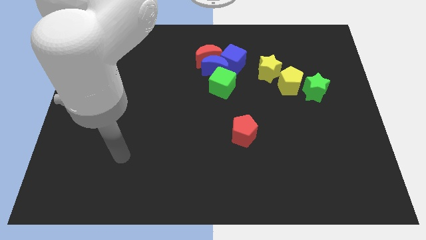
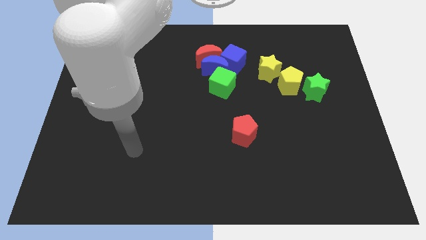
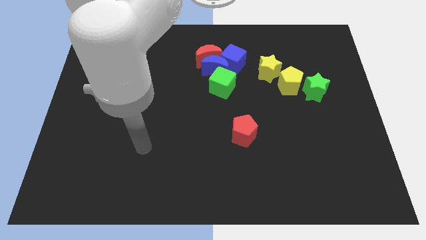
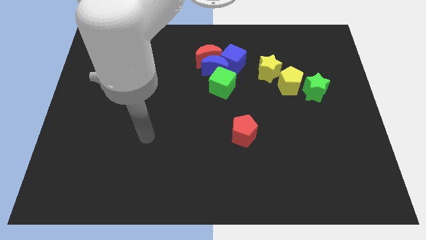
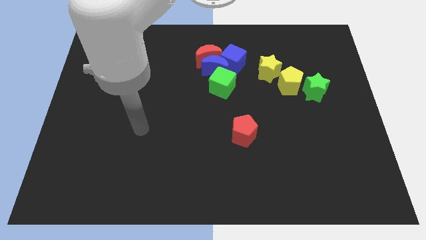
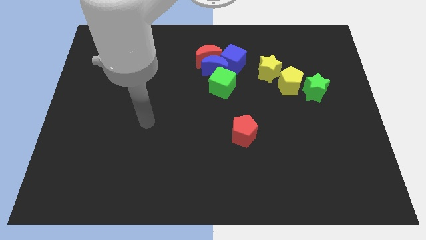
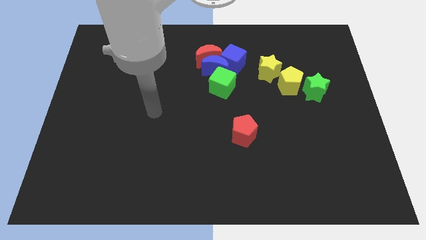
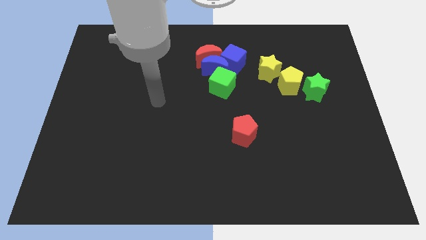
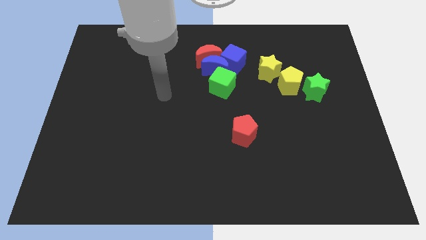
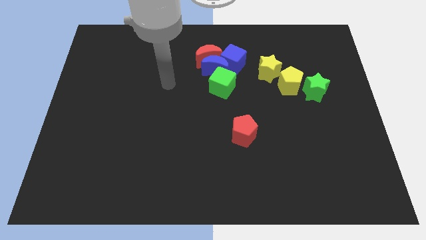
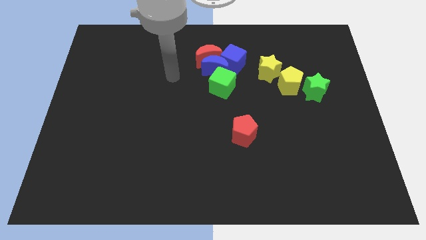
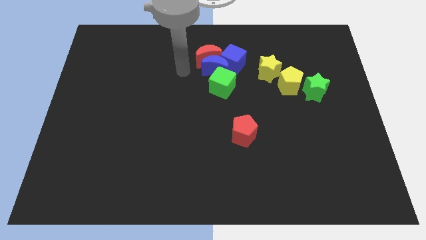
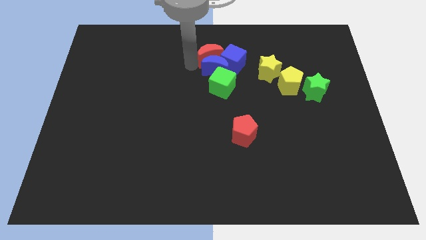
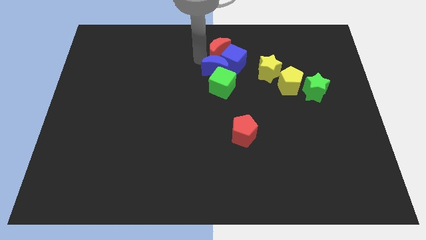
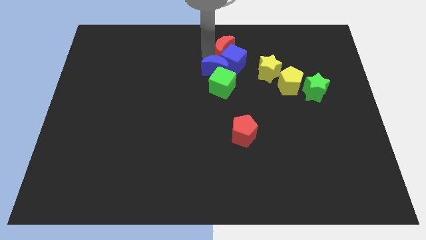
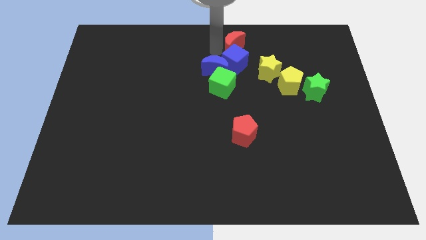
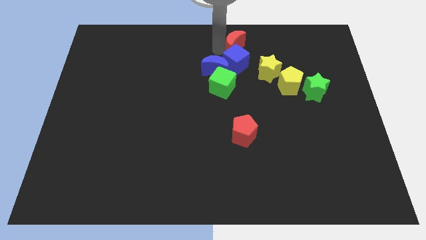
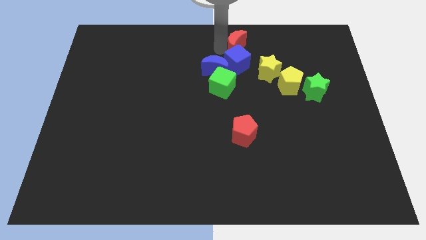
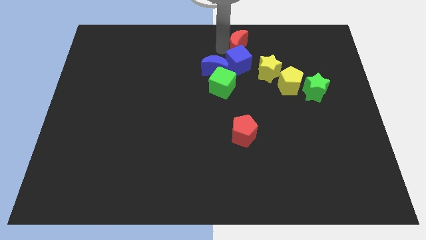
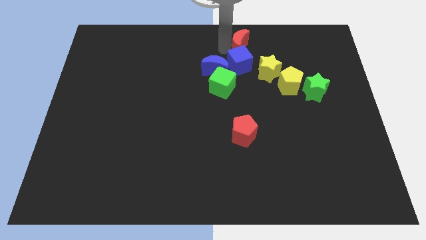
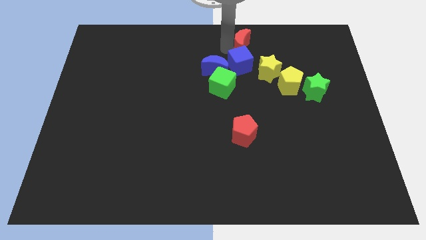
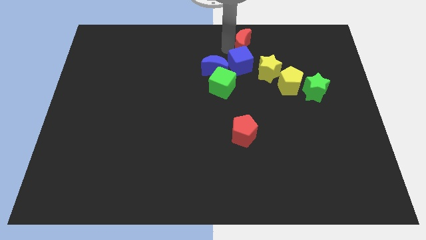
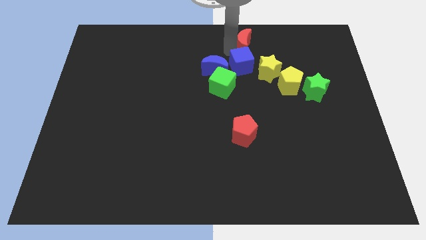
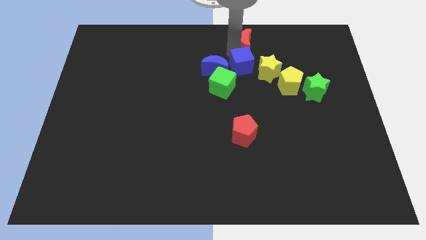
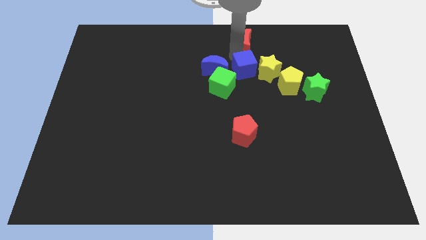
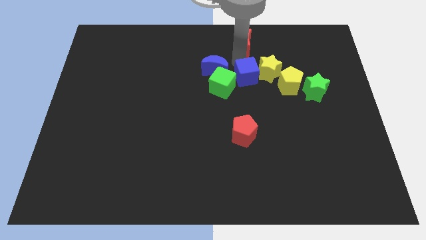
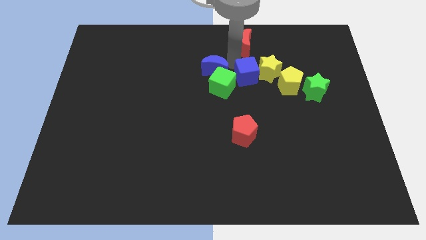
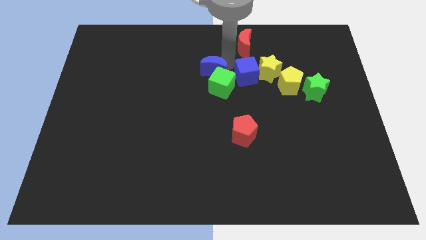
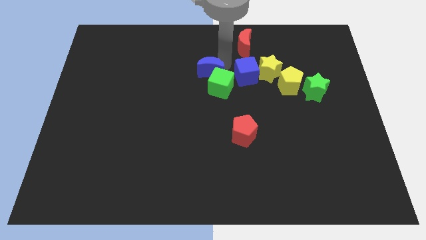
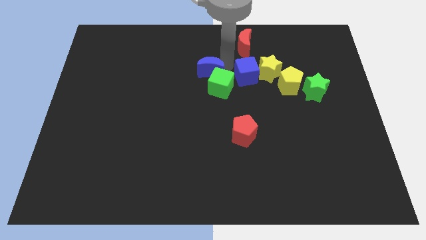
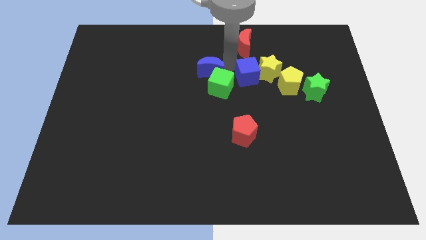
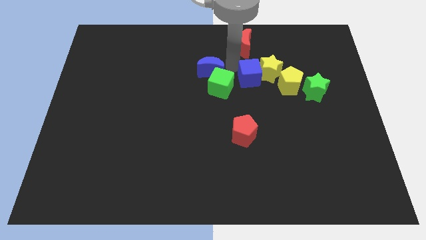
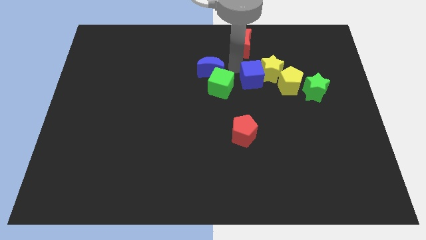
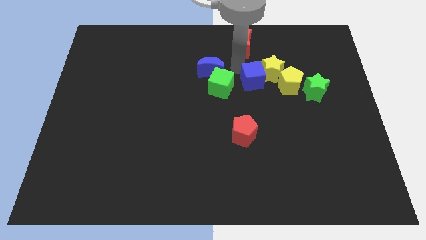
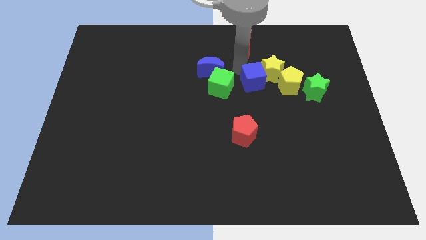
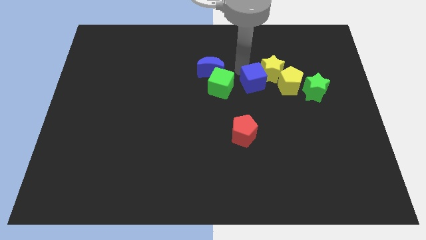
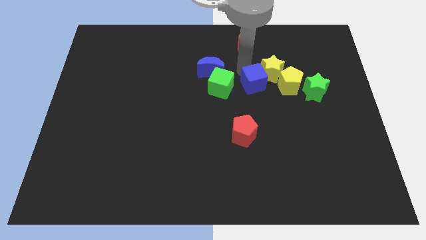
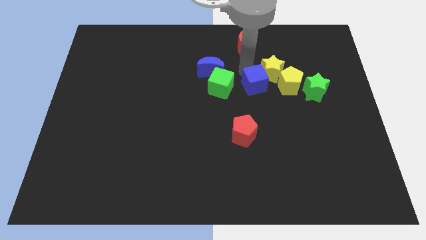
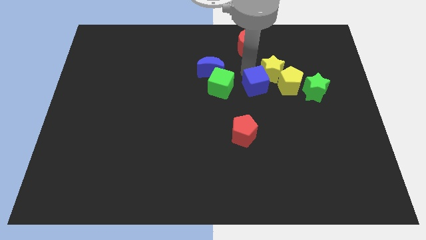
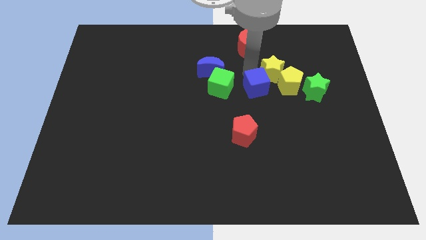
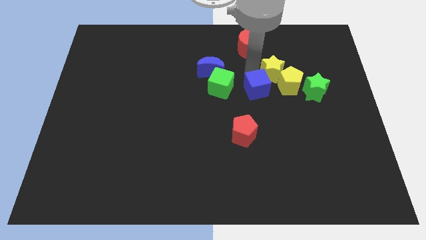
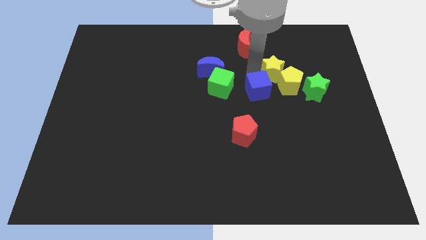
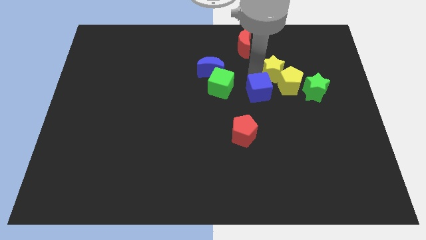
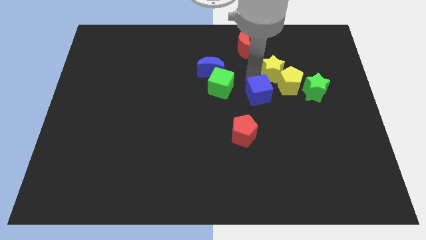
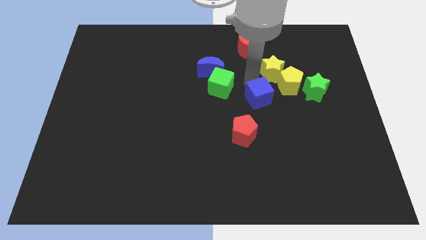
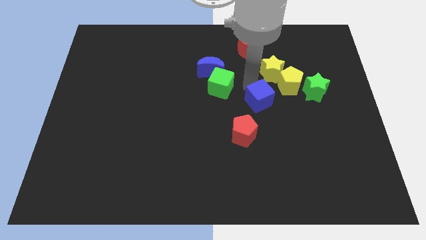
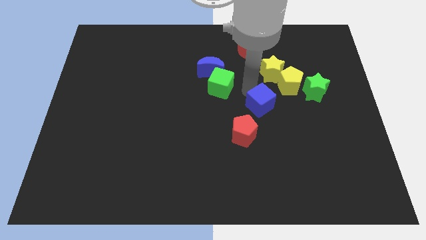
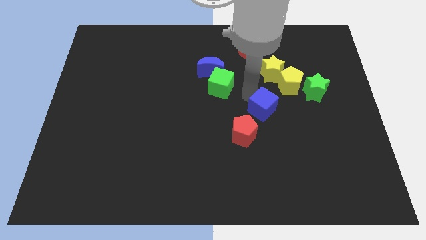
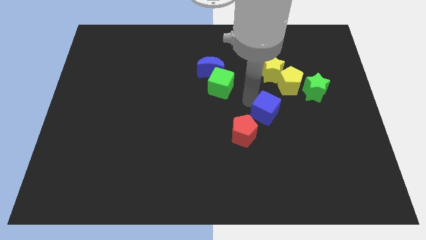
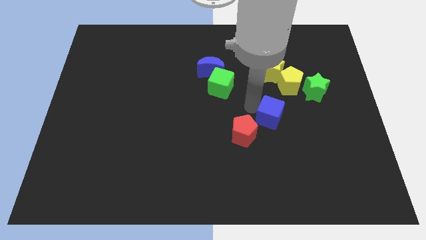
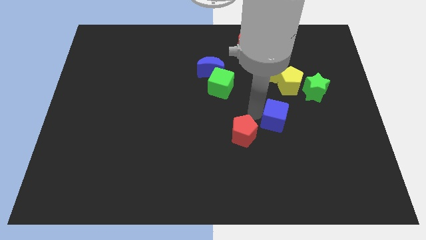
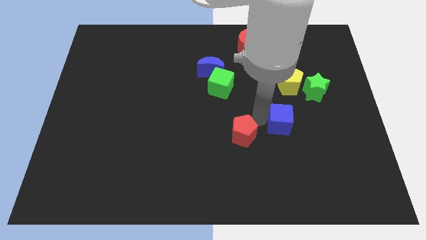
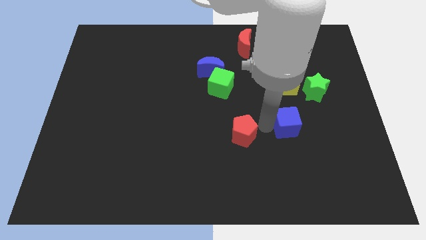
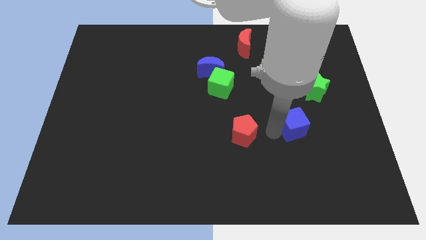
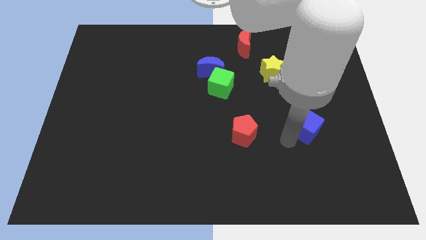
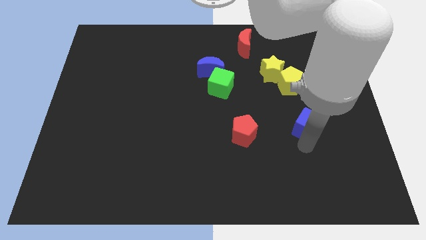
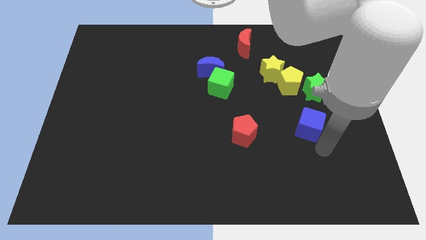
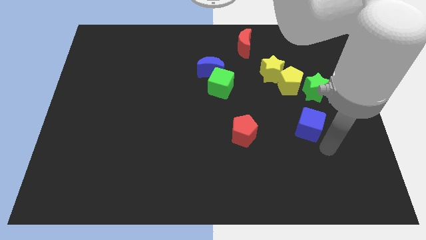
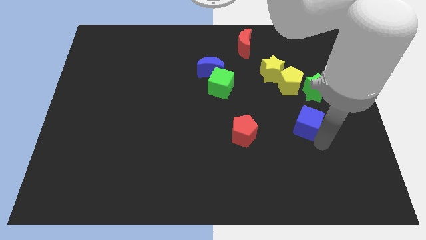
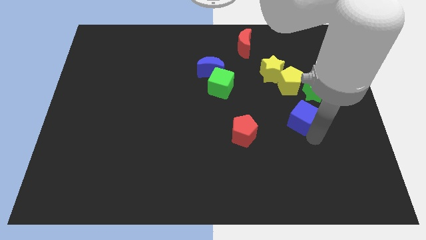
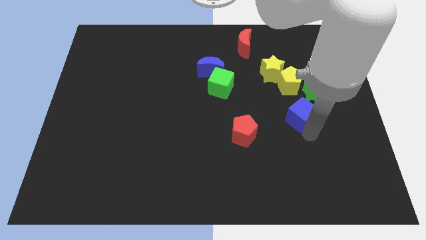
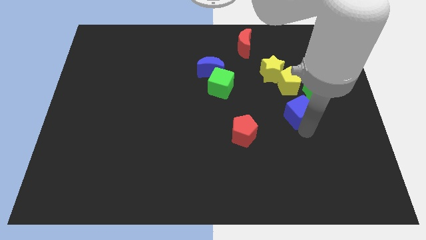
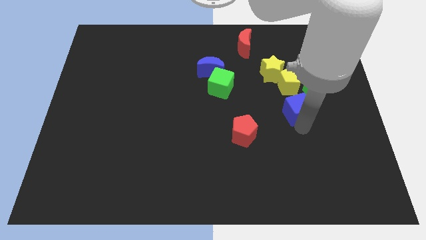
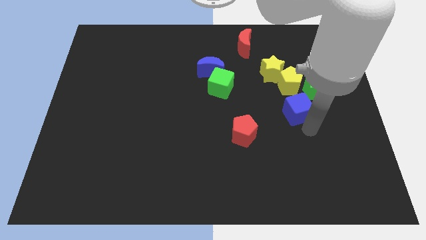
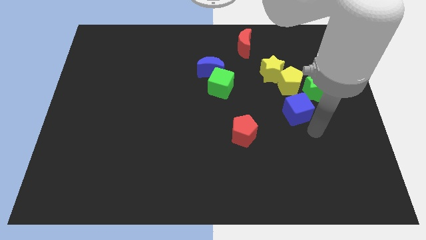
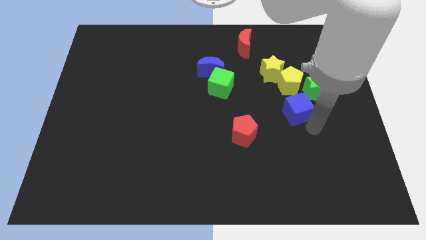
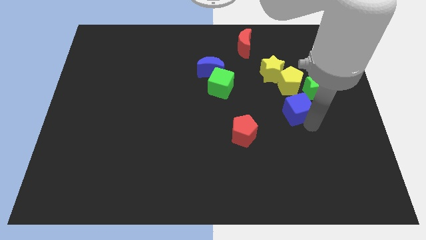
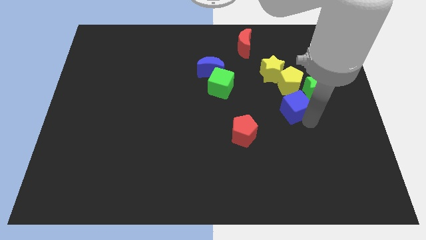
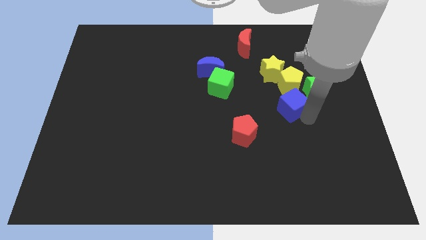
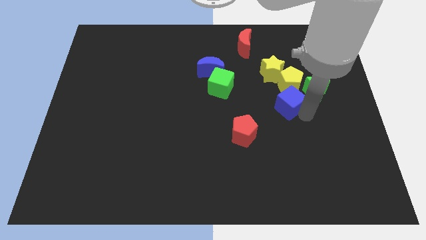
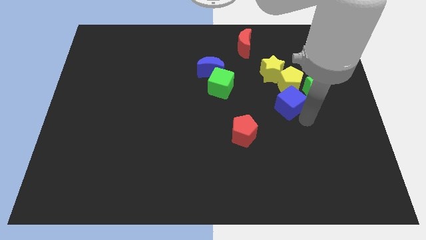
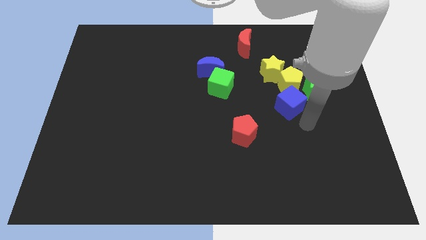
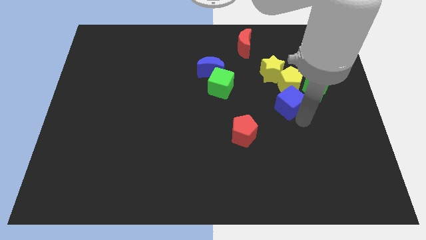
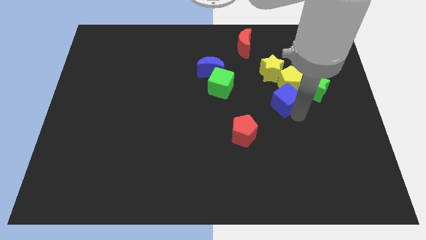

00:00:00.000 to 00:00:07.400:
push the blue cube close to the yellow pentagon
